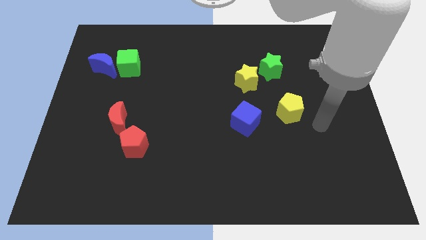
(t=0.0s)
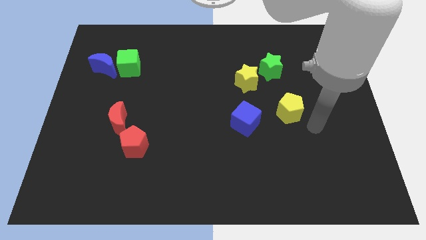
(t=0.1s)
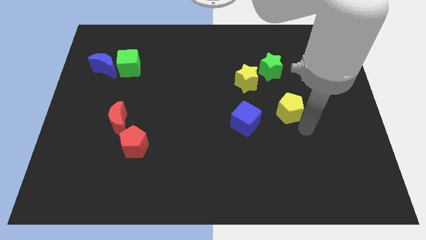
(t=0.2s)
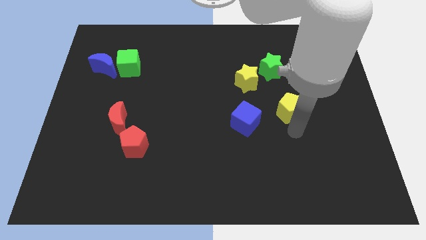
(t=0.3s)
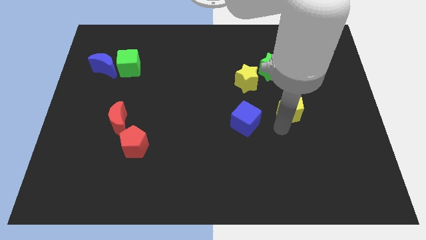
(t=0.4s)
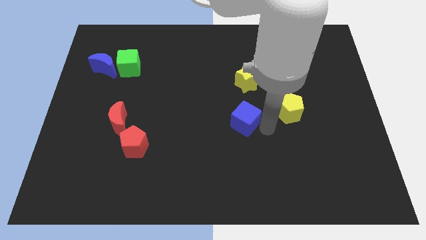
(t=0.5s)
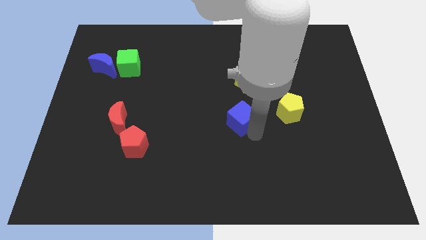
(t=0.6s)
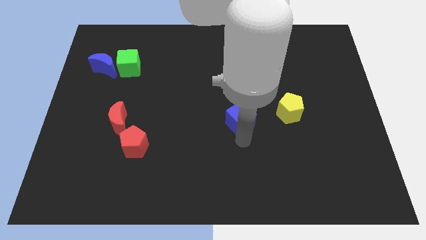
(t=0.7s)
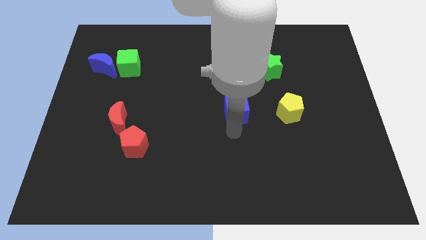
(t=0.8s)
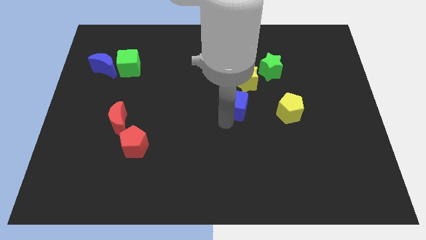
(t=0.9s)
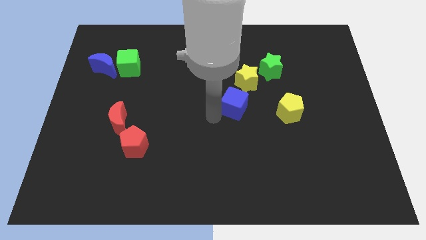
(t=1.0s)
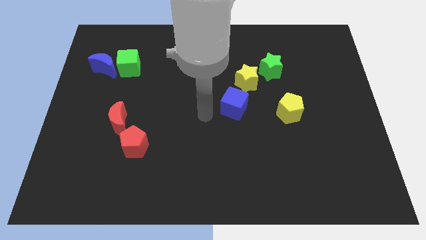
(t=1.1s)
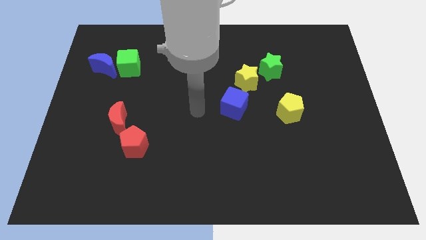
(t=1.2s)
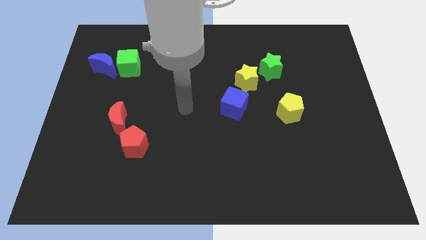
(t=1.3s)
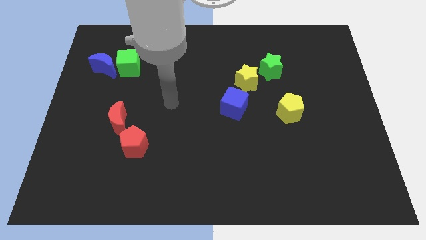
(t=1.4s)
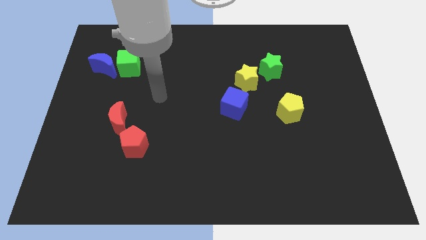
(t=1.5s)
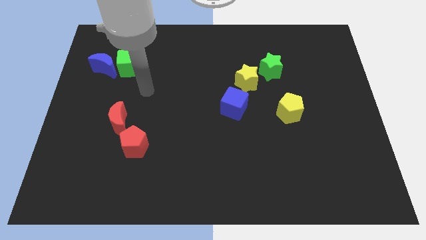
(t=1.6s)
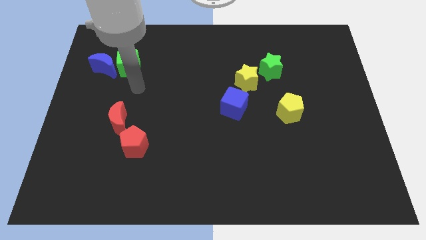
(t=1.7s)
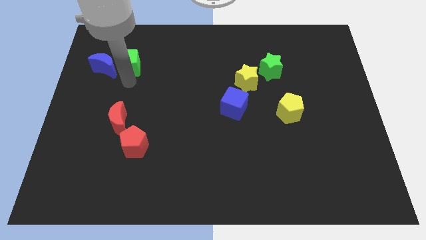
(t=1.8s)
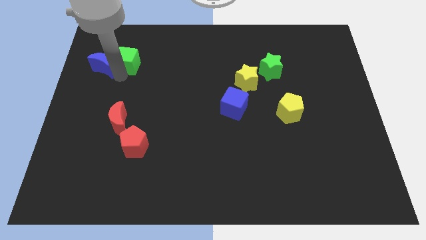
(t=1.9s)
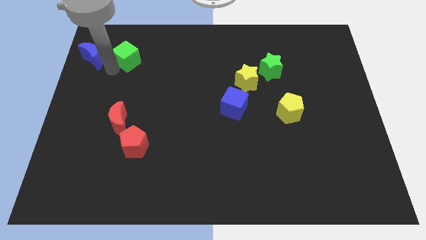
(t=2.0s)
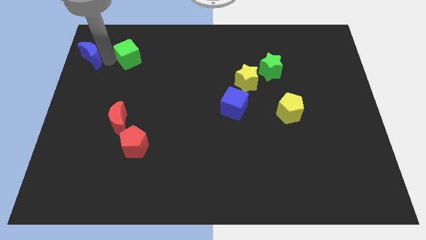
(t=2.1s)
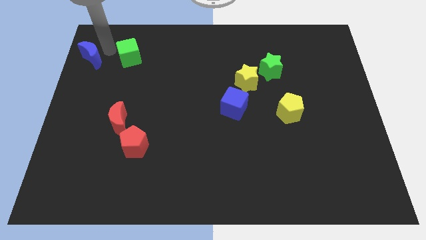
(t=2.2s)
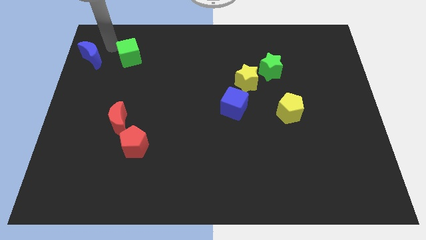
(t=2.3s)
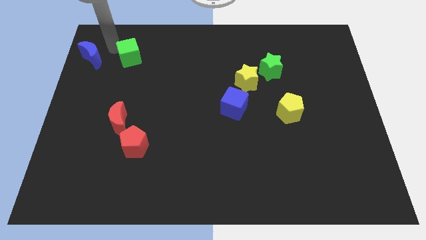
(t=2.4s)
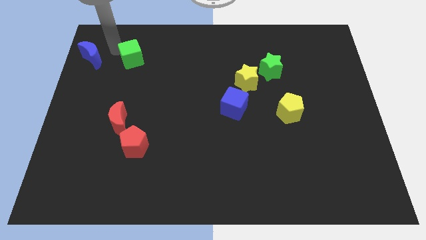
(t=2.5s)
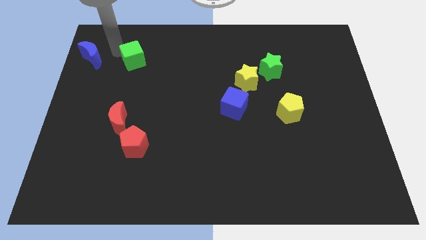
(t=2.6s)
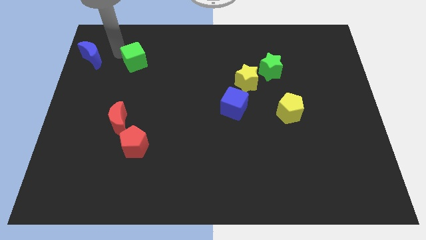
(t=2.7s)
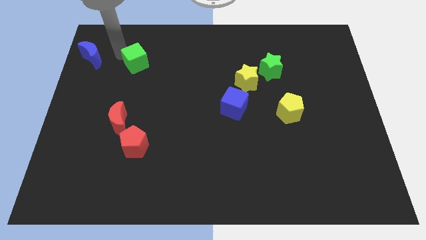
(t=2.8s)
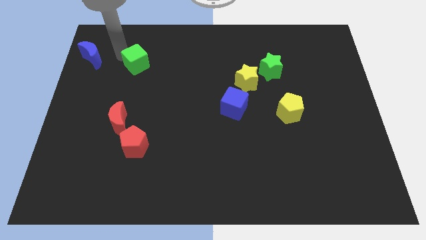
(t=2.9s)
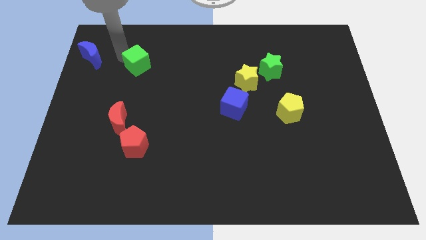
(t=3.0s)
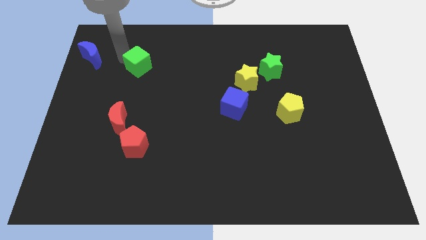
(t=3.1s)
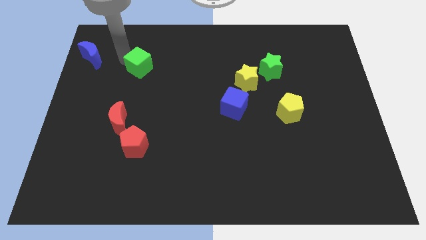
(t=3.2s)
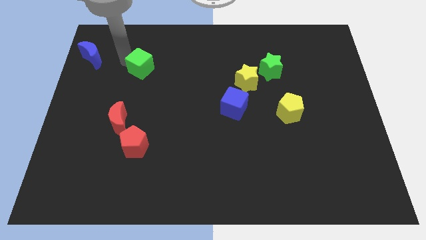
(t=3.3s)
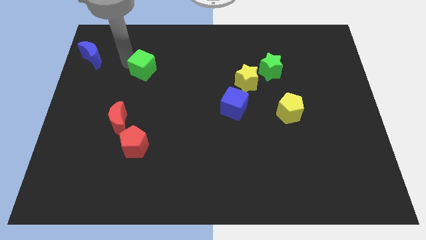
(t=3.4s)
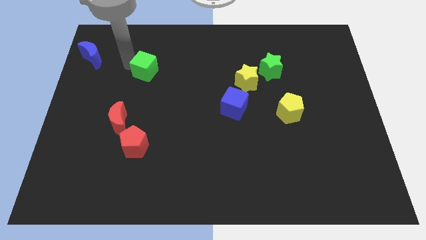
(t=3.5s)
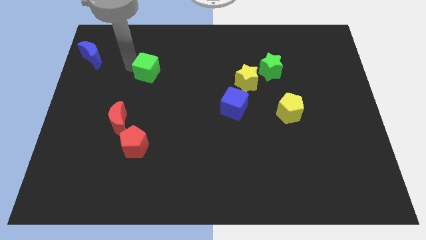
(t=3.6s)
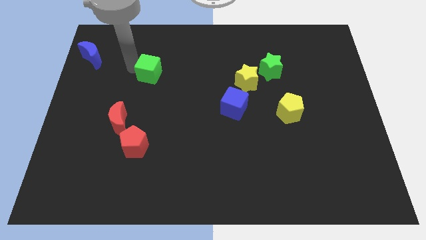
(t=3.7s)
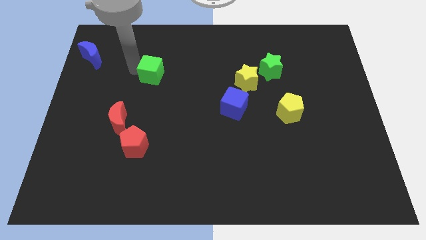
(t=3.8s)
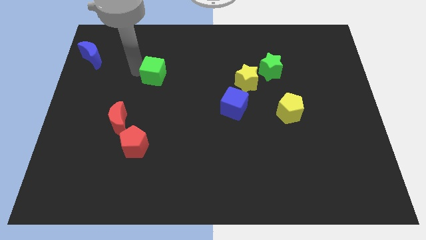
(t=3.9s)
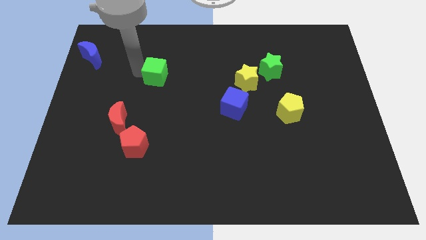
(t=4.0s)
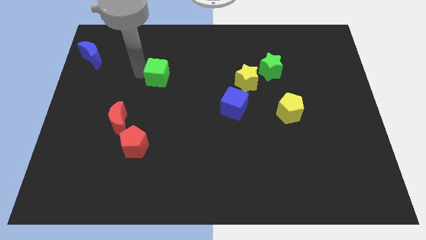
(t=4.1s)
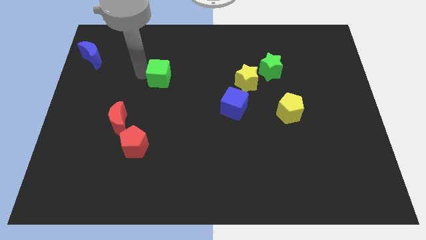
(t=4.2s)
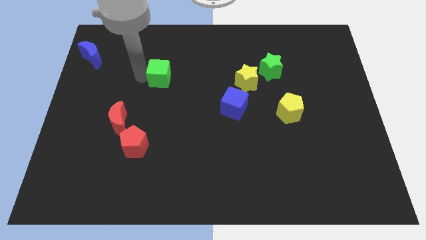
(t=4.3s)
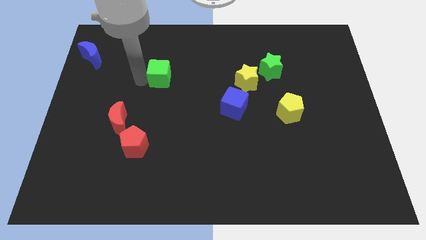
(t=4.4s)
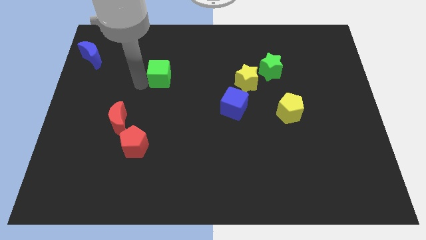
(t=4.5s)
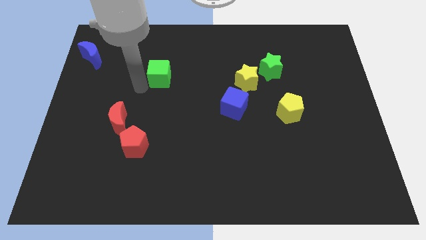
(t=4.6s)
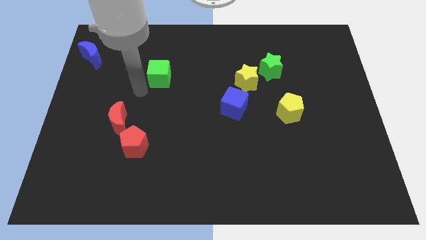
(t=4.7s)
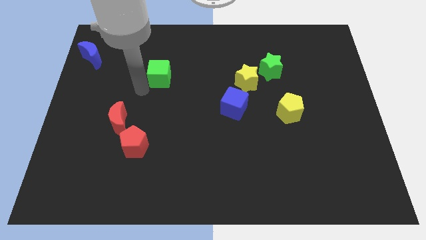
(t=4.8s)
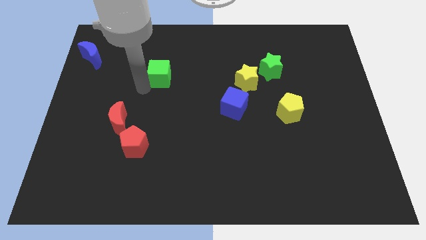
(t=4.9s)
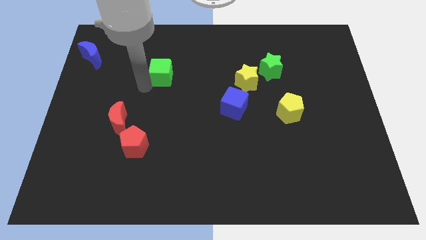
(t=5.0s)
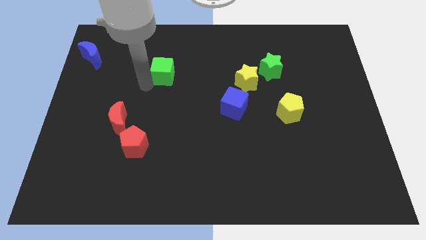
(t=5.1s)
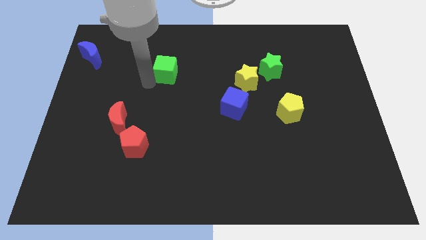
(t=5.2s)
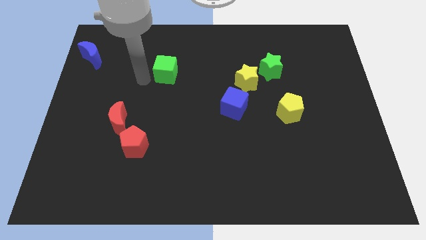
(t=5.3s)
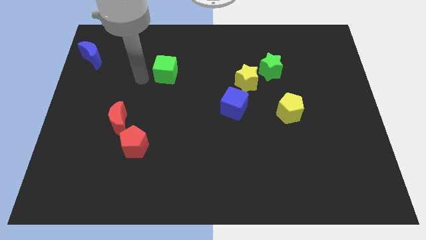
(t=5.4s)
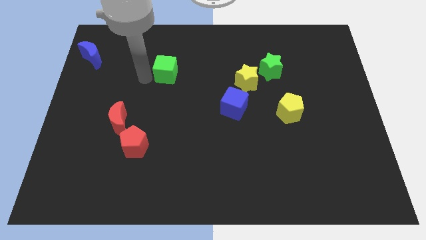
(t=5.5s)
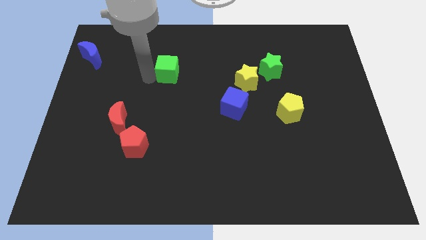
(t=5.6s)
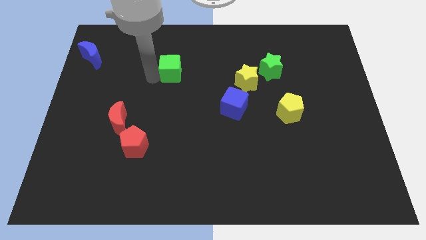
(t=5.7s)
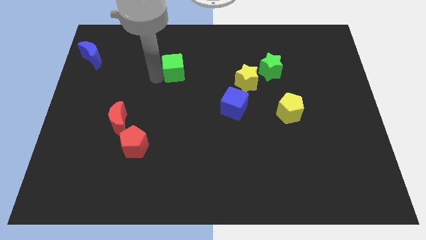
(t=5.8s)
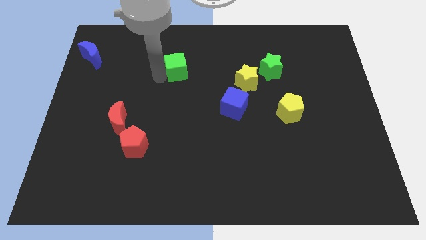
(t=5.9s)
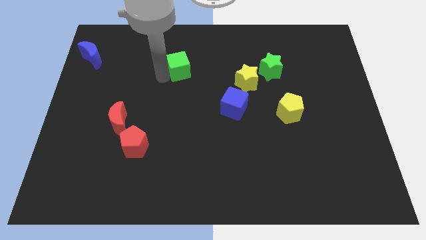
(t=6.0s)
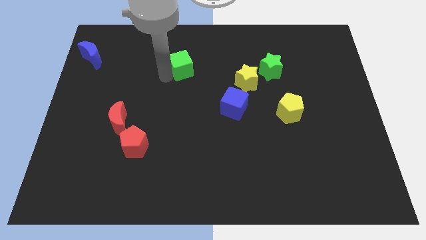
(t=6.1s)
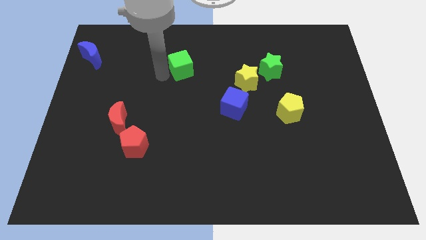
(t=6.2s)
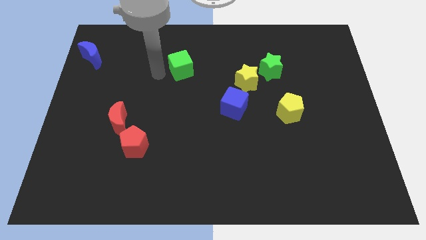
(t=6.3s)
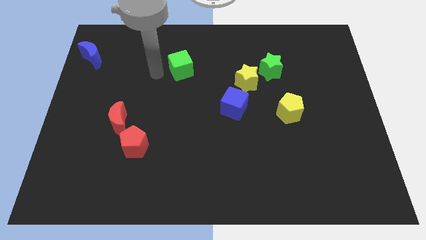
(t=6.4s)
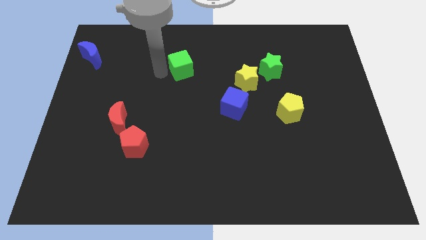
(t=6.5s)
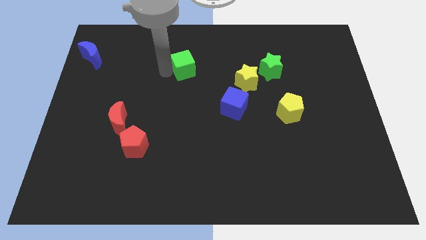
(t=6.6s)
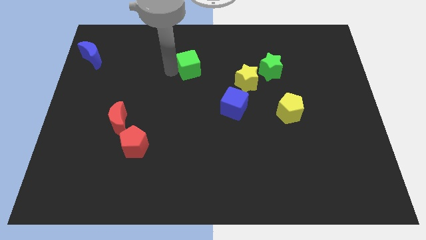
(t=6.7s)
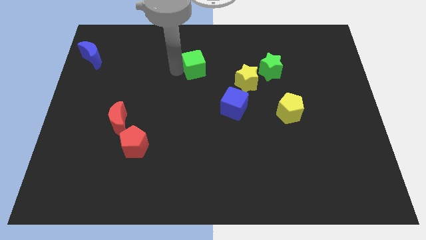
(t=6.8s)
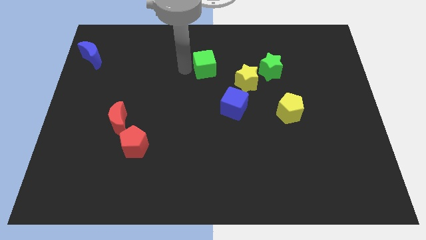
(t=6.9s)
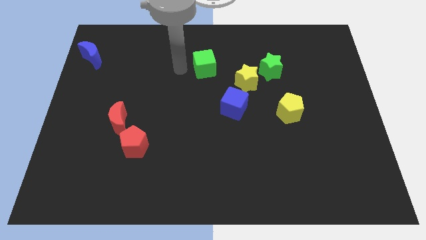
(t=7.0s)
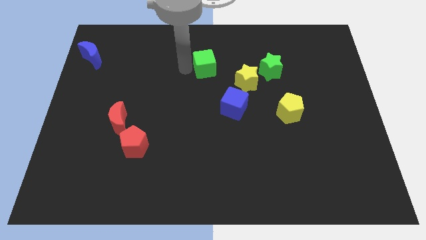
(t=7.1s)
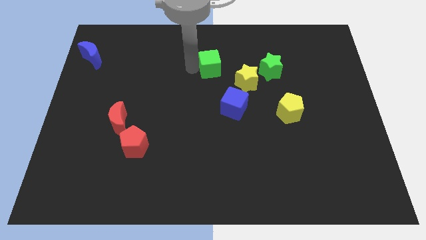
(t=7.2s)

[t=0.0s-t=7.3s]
push the green cube to the right
